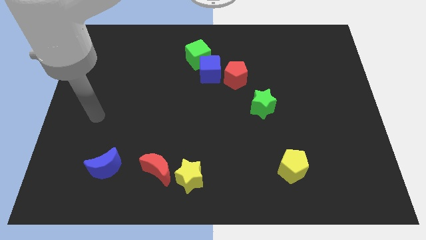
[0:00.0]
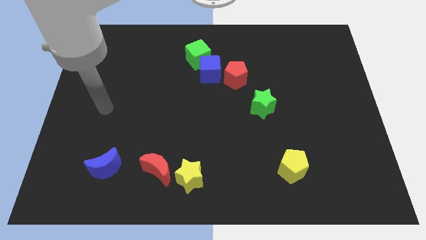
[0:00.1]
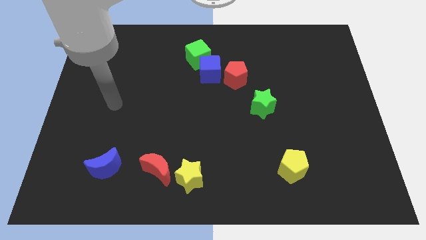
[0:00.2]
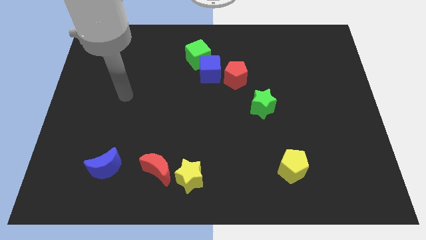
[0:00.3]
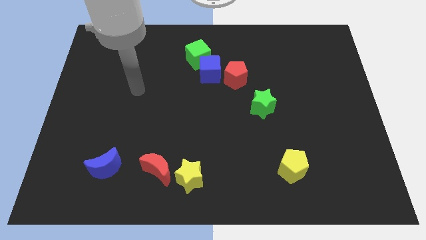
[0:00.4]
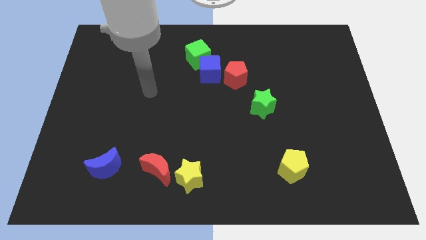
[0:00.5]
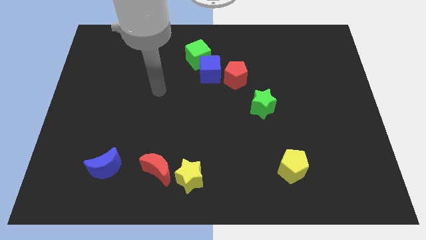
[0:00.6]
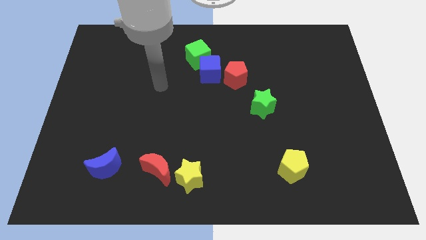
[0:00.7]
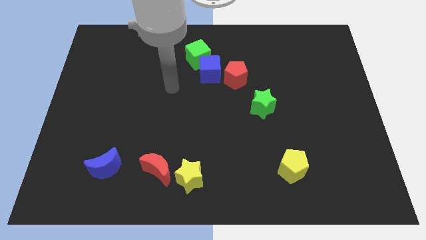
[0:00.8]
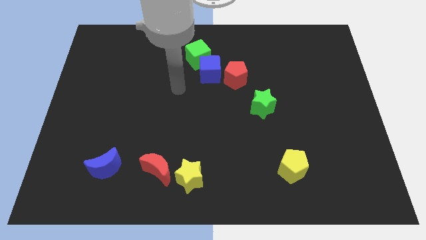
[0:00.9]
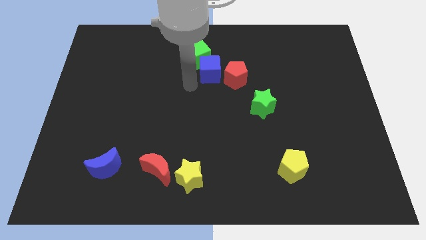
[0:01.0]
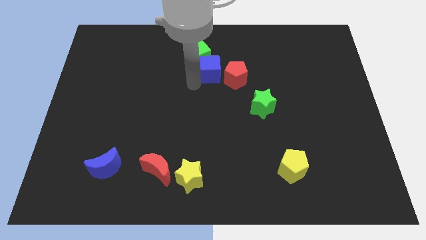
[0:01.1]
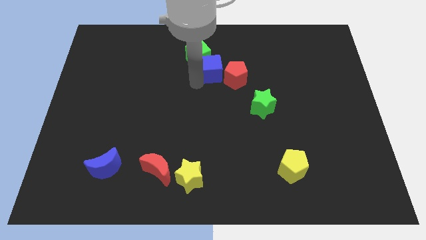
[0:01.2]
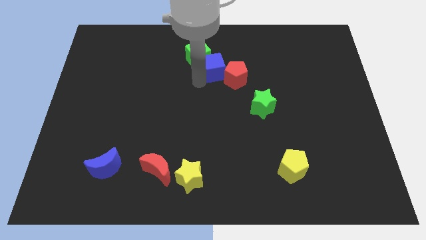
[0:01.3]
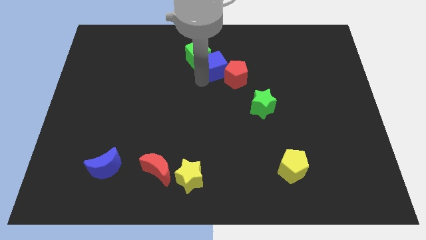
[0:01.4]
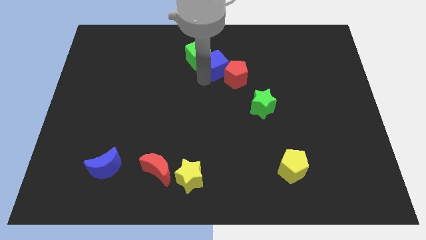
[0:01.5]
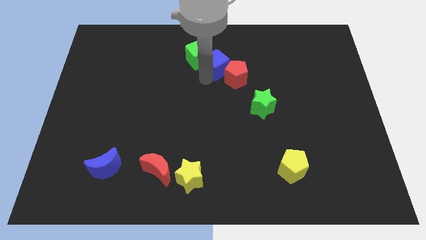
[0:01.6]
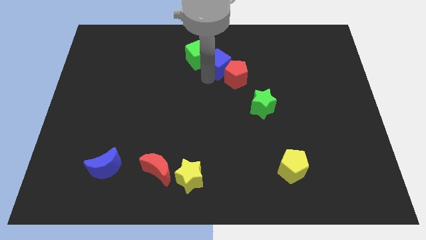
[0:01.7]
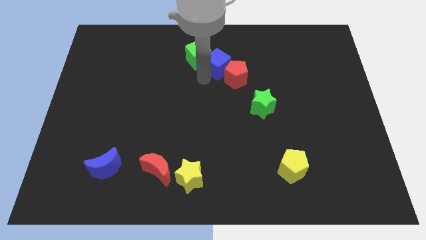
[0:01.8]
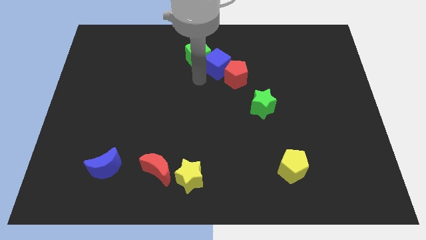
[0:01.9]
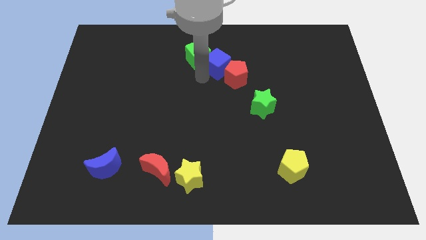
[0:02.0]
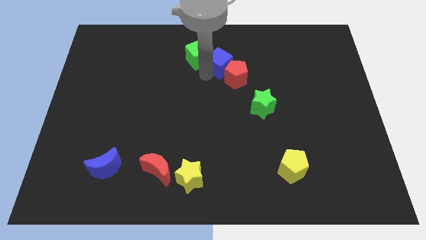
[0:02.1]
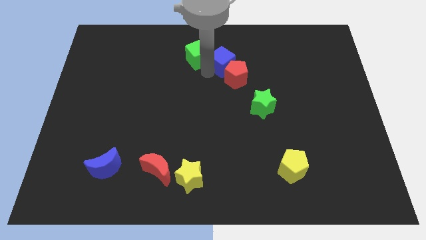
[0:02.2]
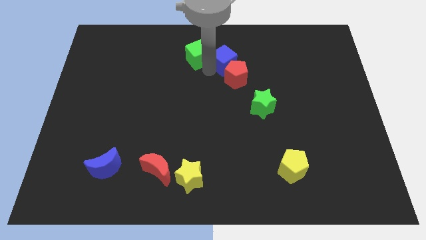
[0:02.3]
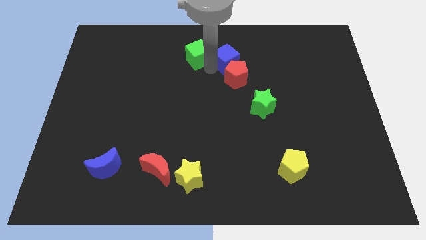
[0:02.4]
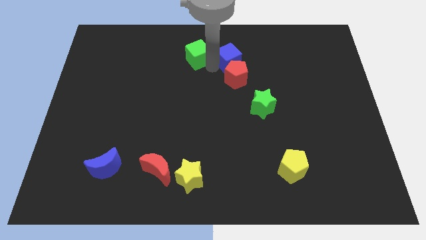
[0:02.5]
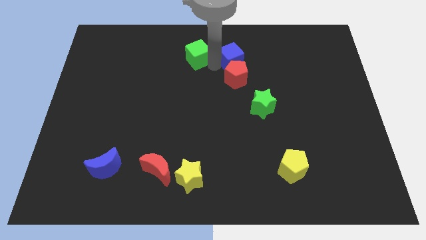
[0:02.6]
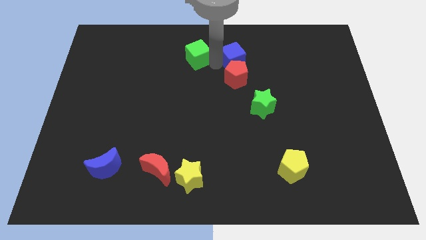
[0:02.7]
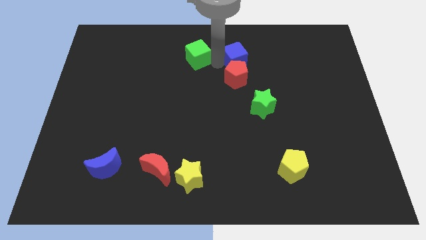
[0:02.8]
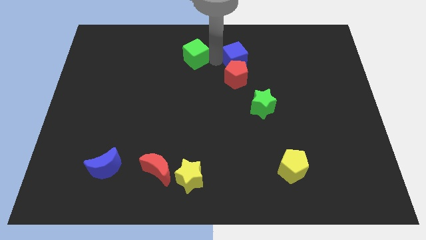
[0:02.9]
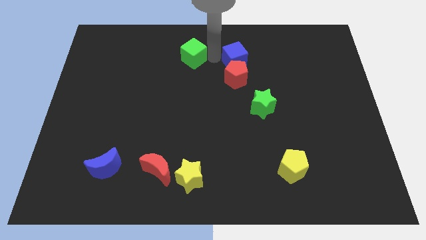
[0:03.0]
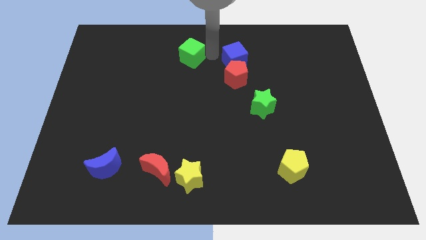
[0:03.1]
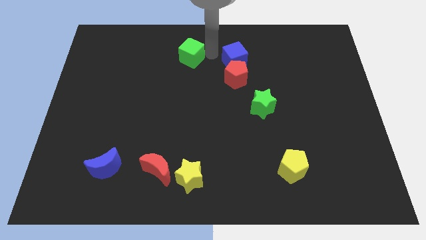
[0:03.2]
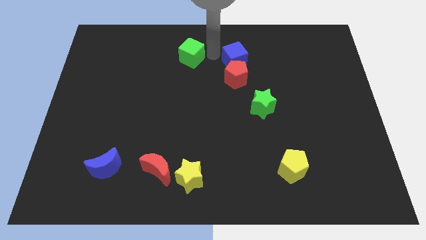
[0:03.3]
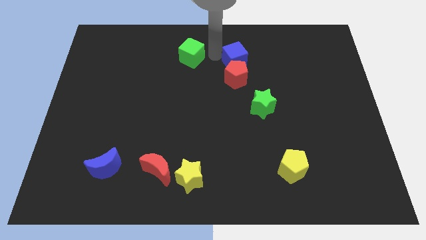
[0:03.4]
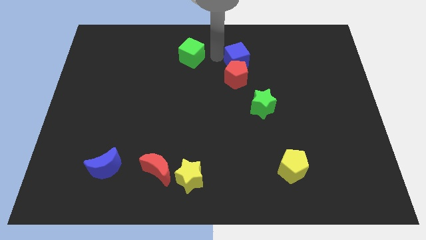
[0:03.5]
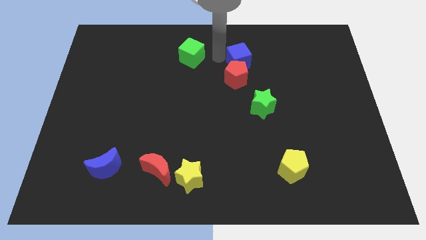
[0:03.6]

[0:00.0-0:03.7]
push the blue cube right a bit

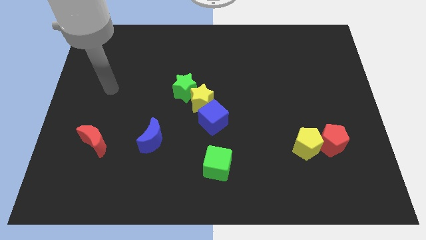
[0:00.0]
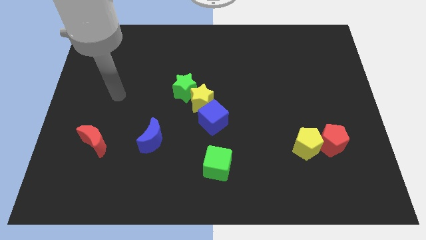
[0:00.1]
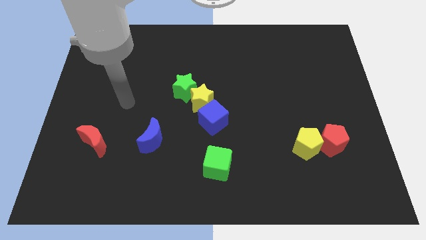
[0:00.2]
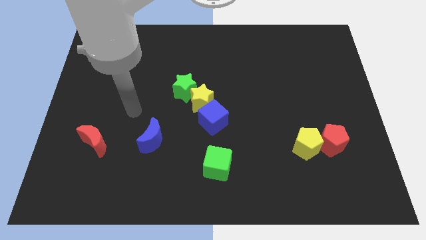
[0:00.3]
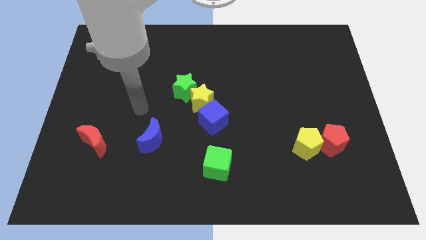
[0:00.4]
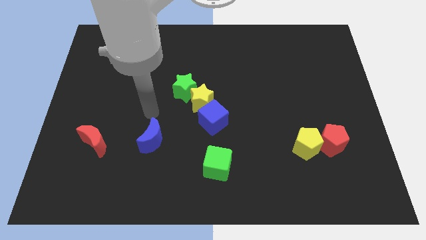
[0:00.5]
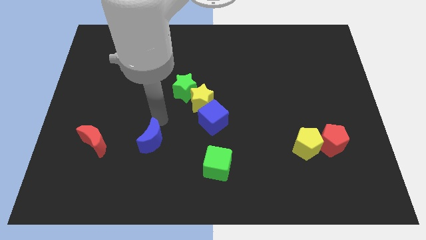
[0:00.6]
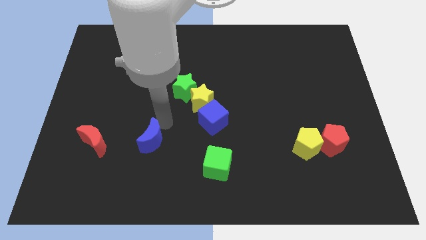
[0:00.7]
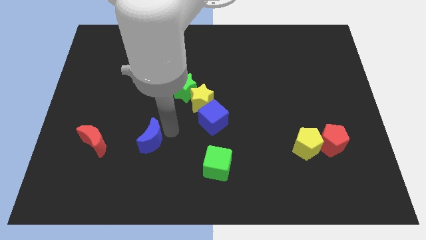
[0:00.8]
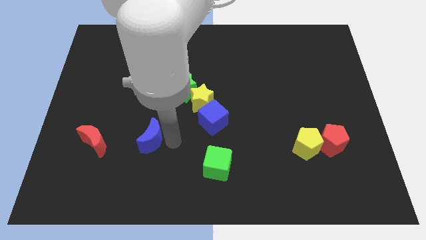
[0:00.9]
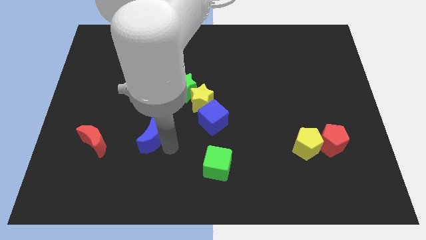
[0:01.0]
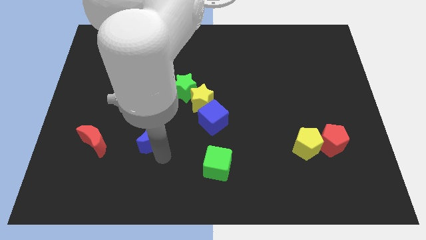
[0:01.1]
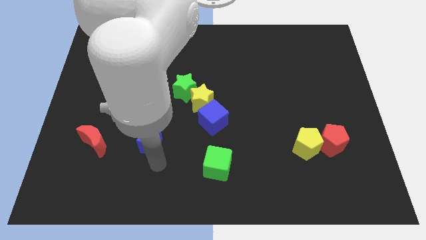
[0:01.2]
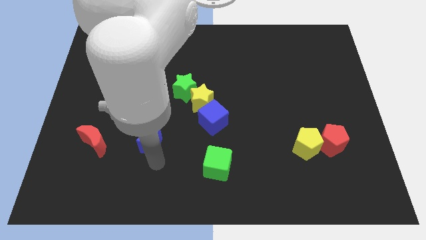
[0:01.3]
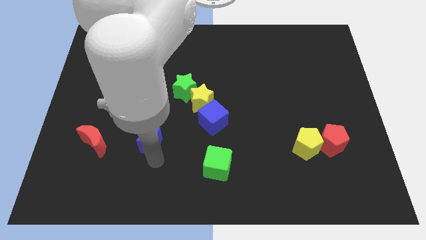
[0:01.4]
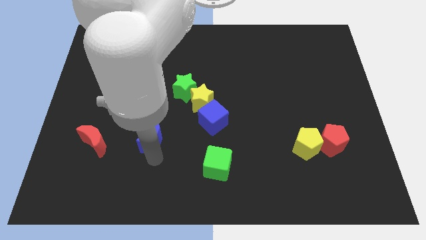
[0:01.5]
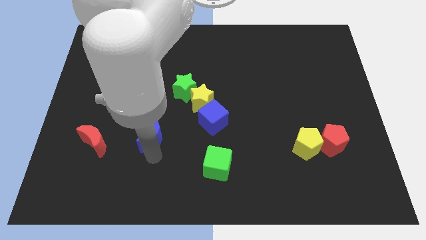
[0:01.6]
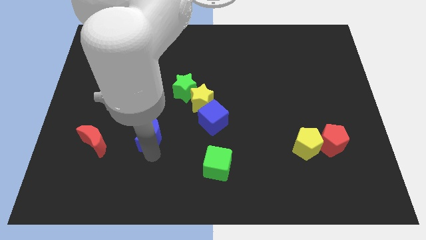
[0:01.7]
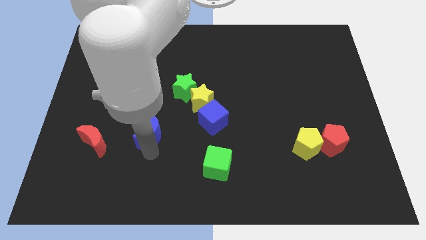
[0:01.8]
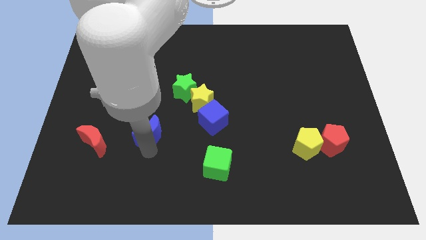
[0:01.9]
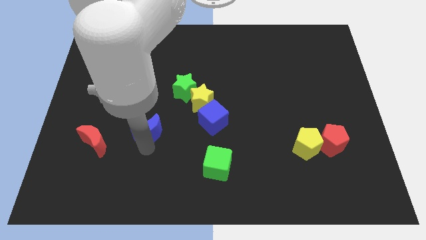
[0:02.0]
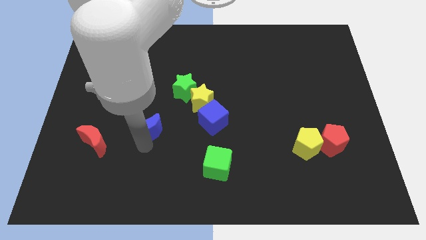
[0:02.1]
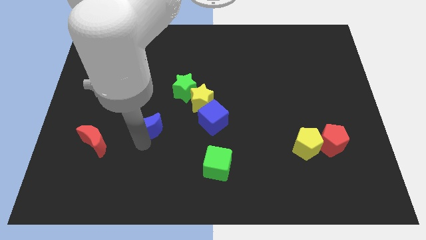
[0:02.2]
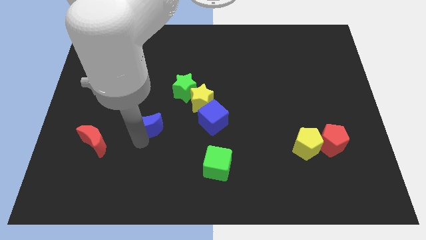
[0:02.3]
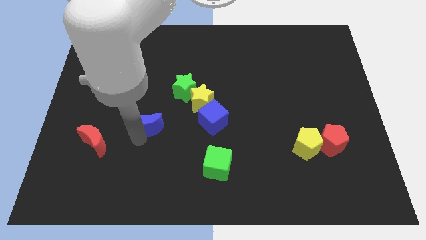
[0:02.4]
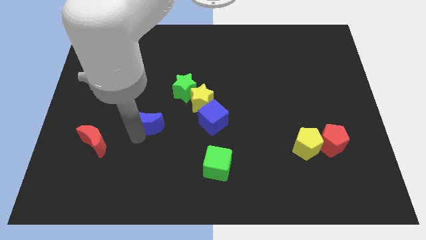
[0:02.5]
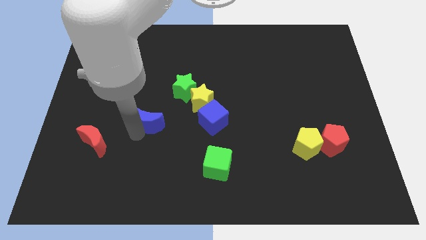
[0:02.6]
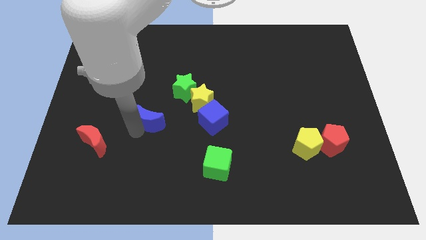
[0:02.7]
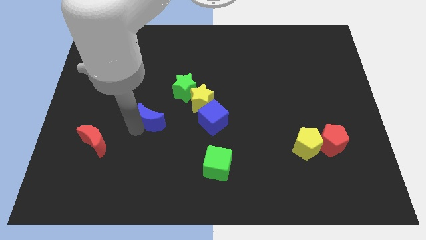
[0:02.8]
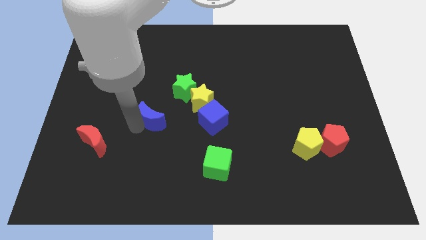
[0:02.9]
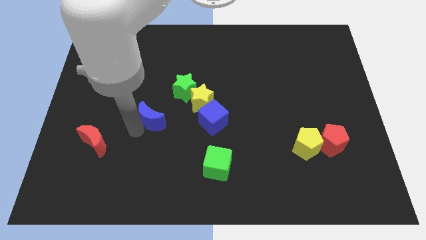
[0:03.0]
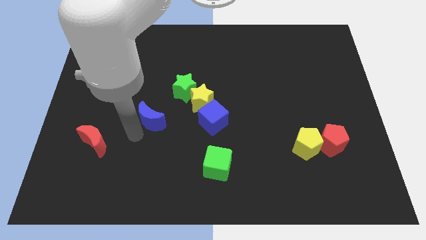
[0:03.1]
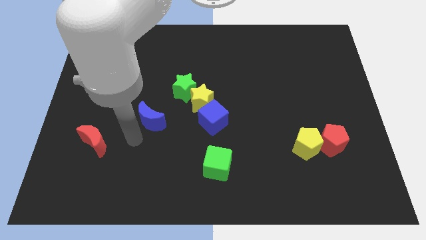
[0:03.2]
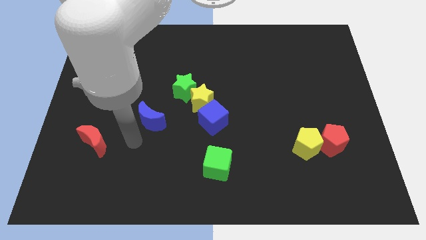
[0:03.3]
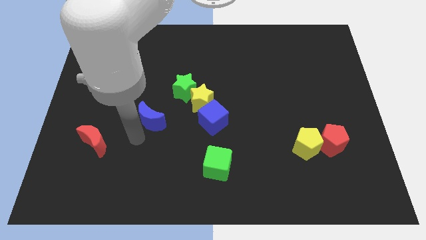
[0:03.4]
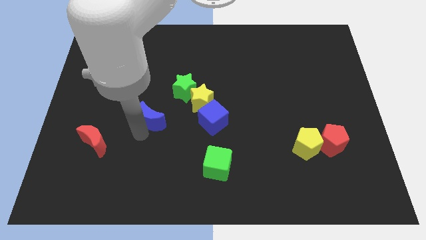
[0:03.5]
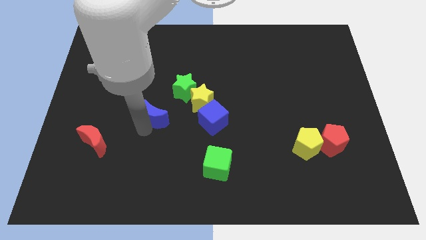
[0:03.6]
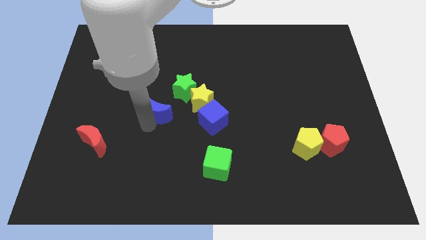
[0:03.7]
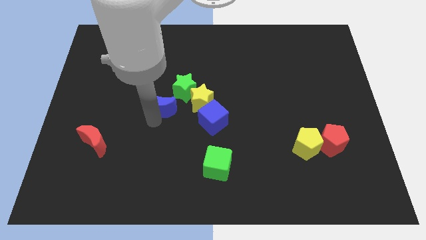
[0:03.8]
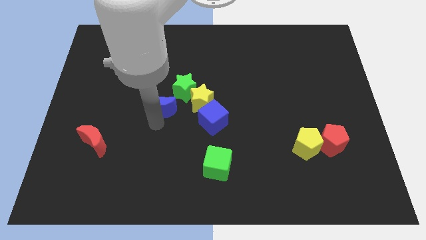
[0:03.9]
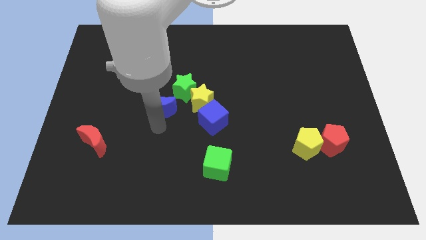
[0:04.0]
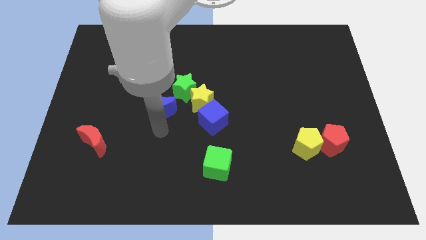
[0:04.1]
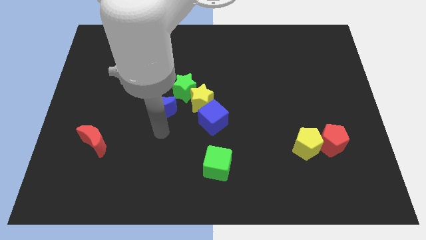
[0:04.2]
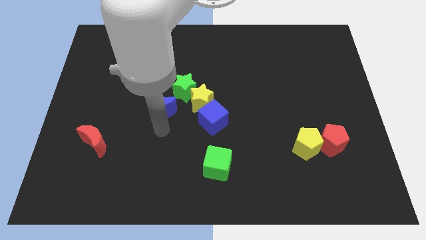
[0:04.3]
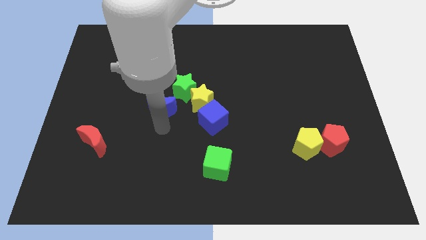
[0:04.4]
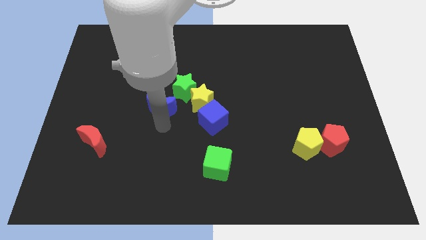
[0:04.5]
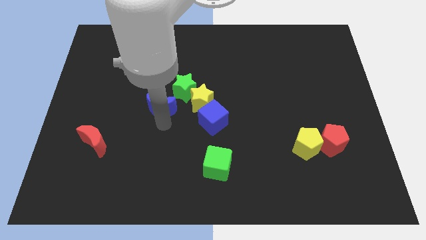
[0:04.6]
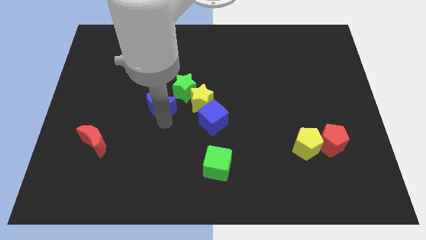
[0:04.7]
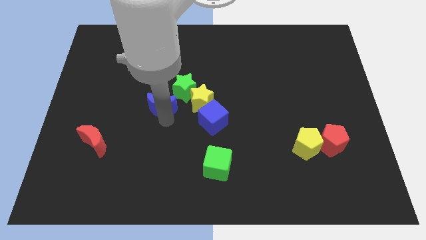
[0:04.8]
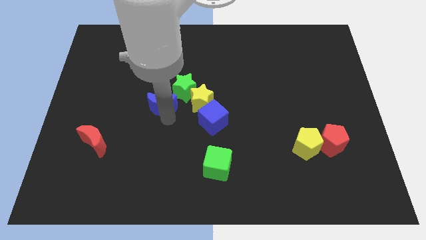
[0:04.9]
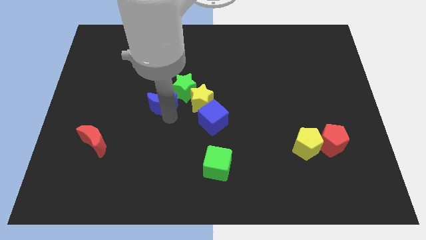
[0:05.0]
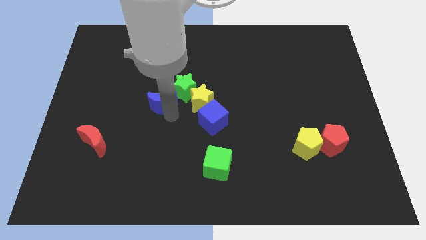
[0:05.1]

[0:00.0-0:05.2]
slide the blue moon somewhat up and right
